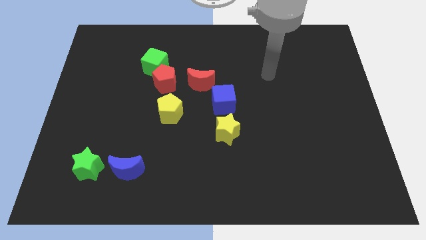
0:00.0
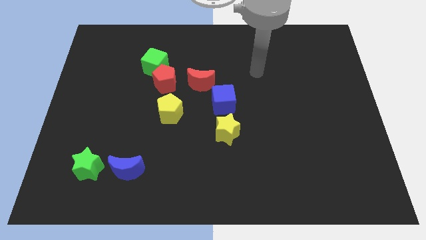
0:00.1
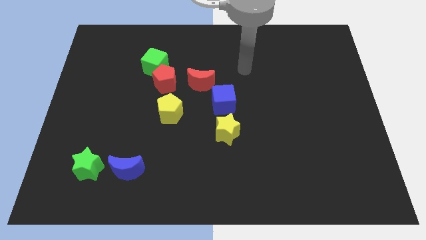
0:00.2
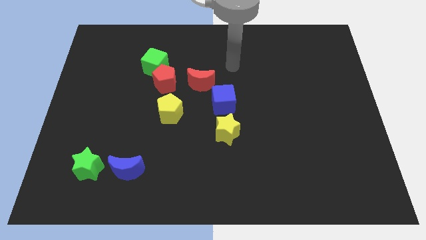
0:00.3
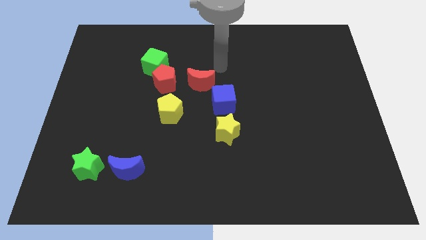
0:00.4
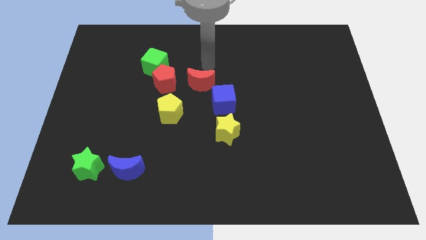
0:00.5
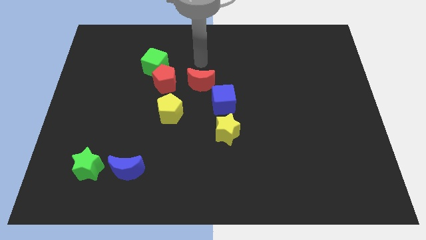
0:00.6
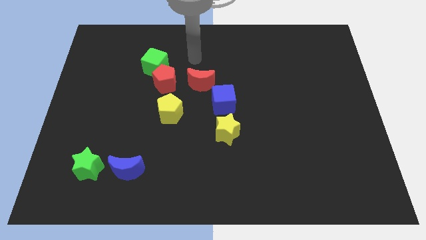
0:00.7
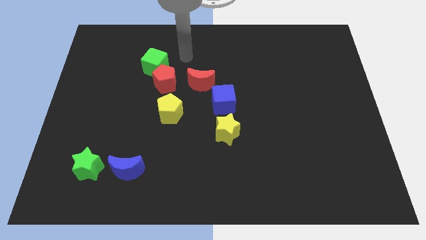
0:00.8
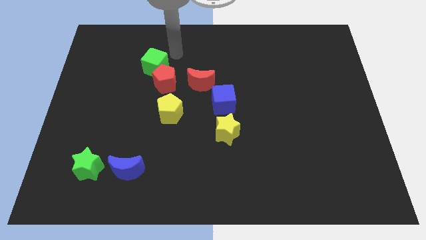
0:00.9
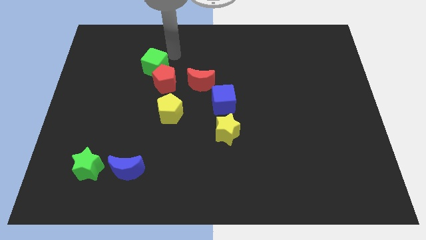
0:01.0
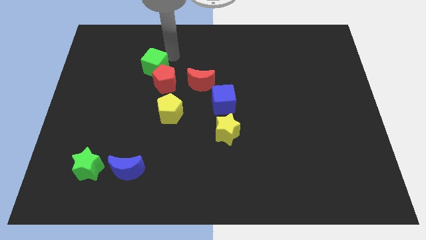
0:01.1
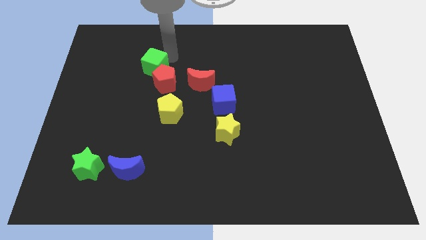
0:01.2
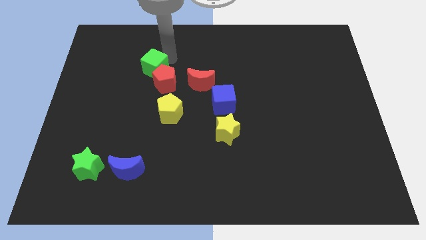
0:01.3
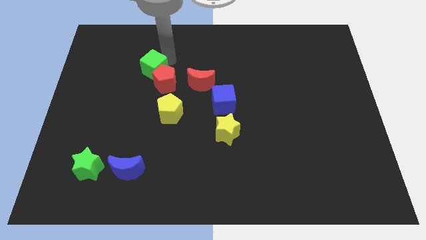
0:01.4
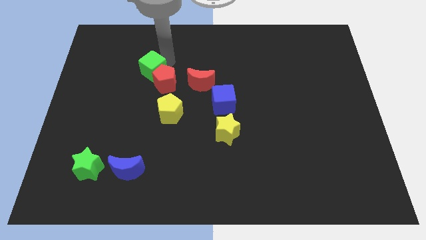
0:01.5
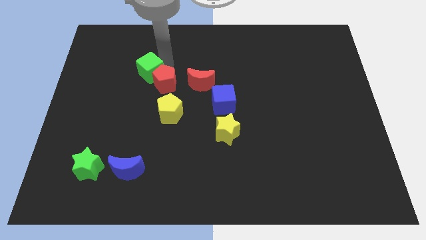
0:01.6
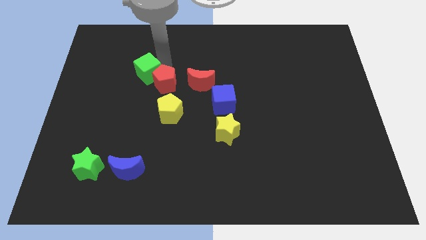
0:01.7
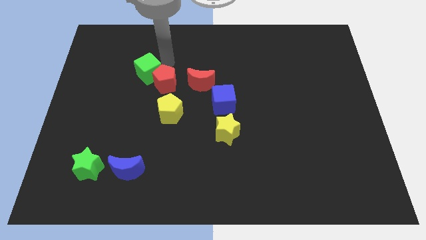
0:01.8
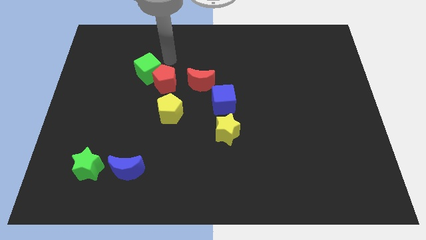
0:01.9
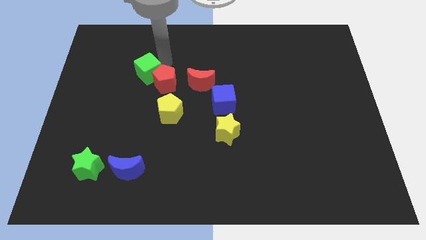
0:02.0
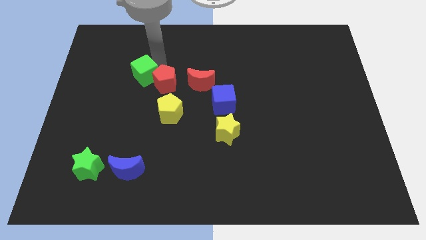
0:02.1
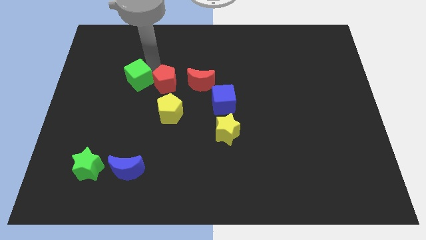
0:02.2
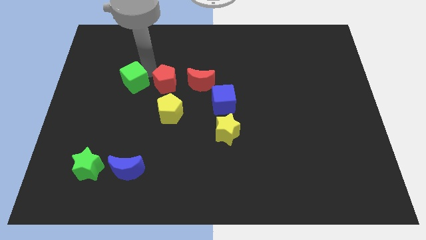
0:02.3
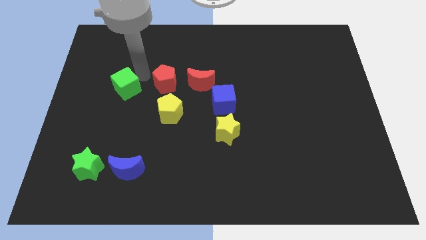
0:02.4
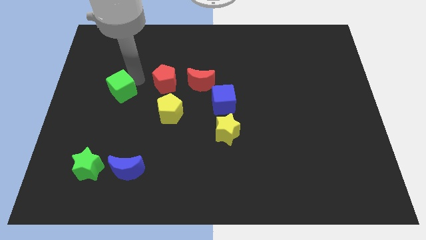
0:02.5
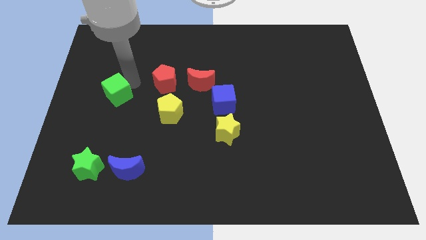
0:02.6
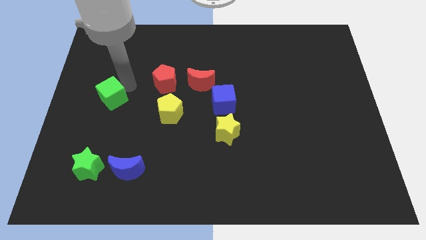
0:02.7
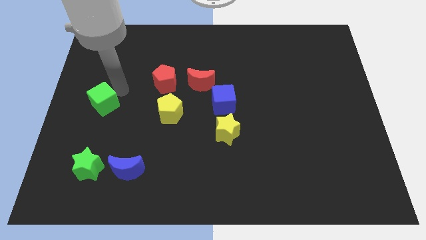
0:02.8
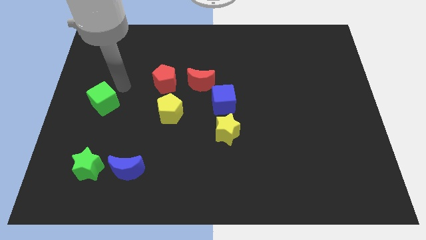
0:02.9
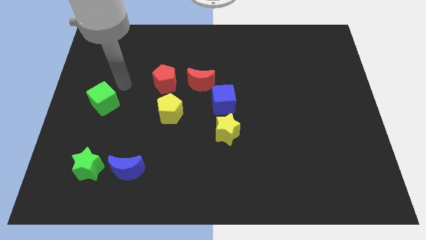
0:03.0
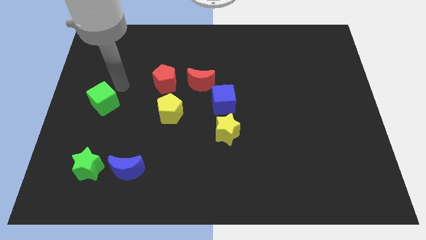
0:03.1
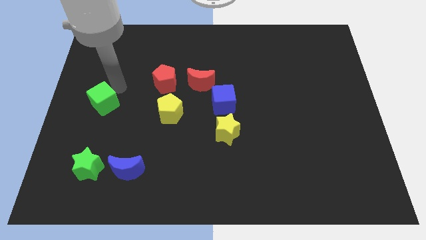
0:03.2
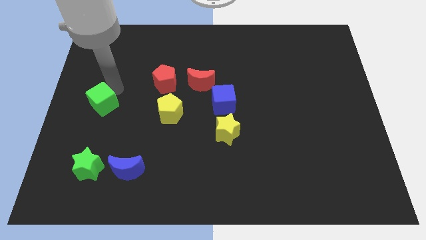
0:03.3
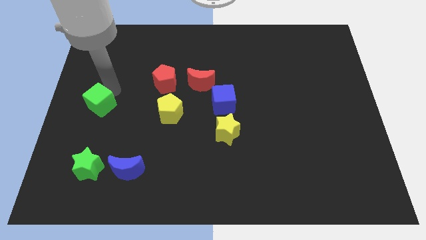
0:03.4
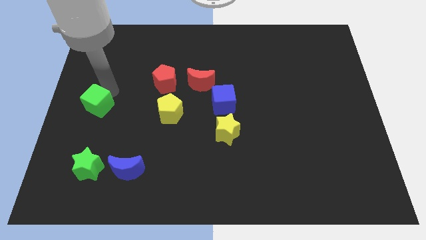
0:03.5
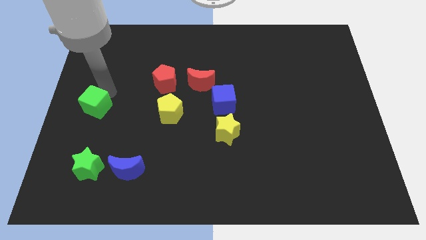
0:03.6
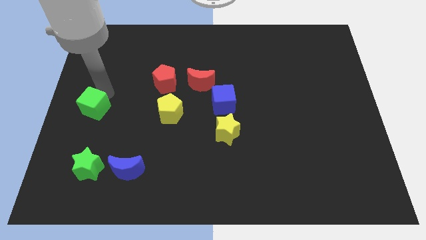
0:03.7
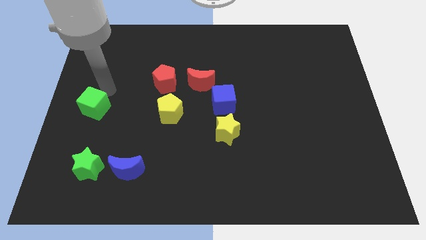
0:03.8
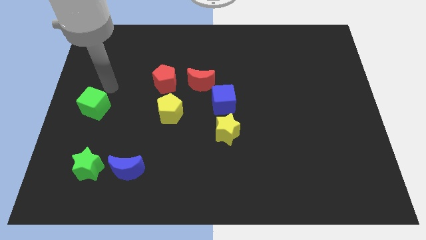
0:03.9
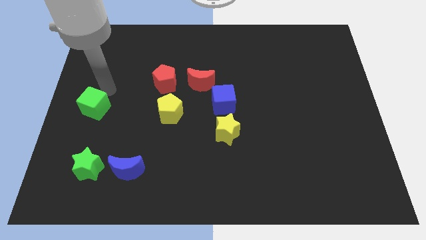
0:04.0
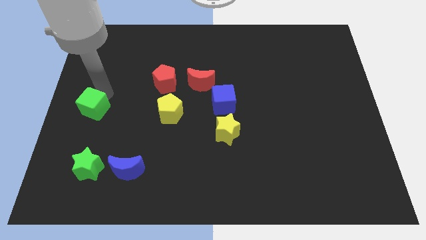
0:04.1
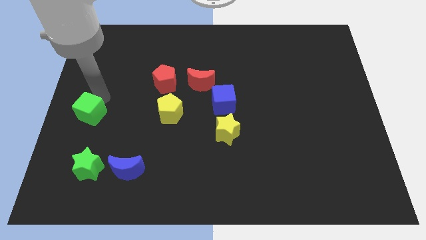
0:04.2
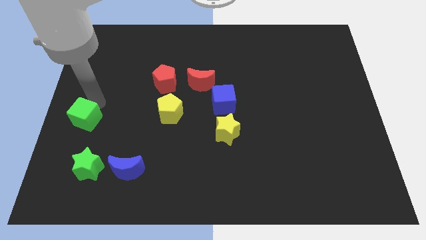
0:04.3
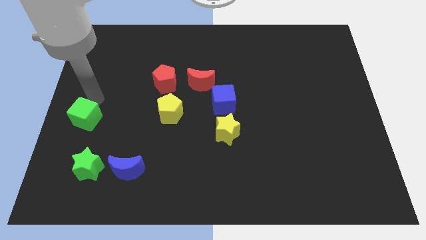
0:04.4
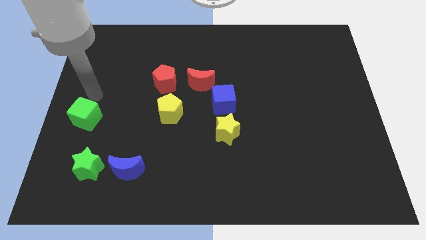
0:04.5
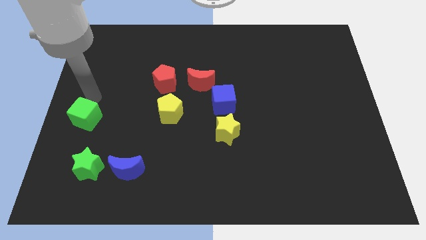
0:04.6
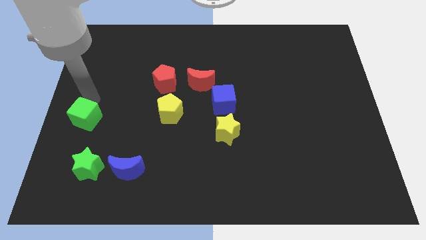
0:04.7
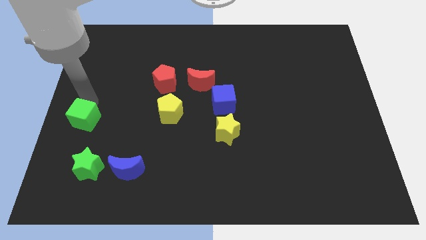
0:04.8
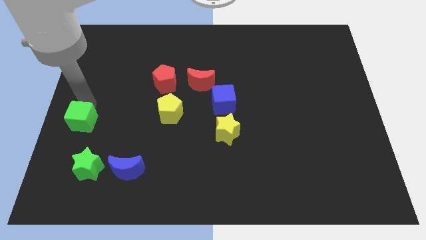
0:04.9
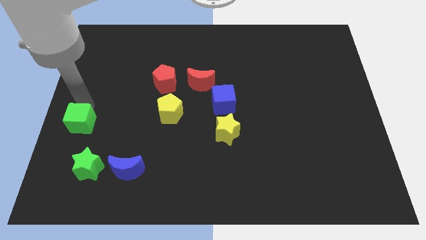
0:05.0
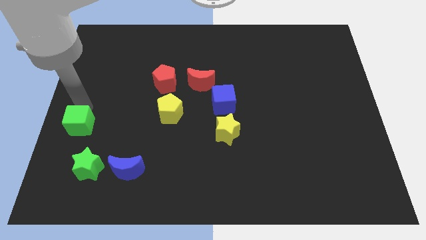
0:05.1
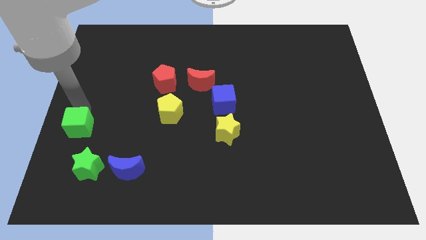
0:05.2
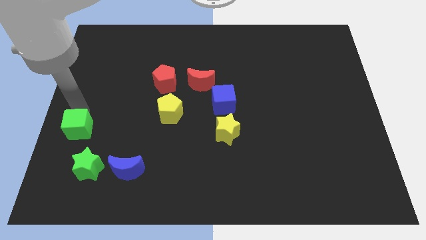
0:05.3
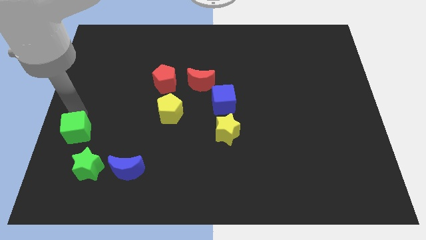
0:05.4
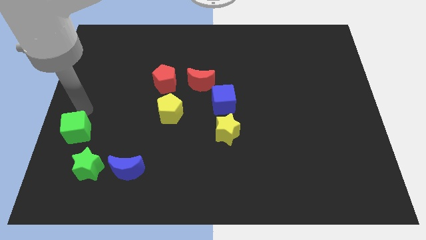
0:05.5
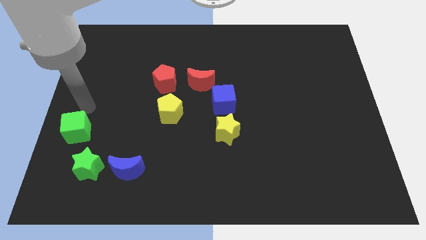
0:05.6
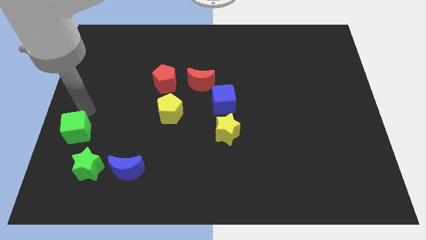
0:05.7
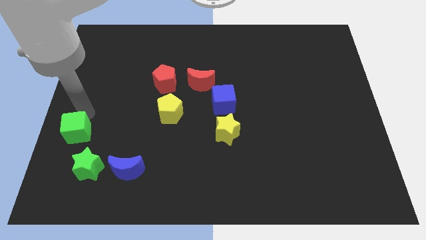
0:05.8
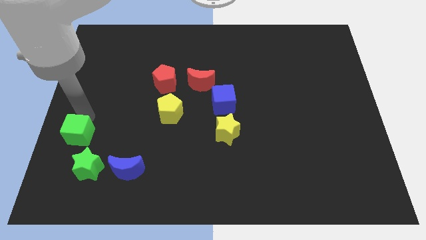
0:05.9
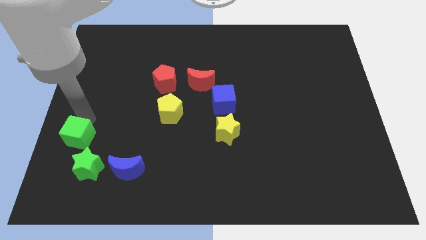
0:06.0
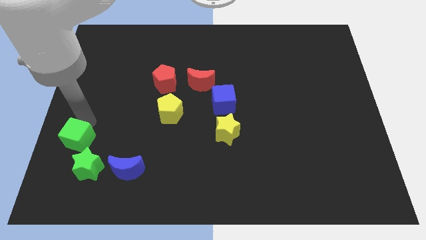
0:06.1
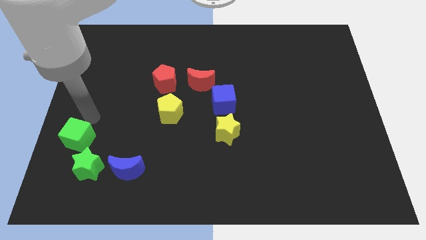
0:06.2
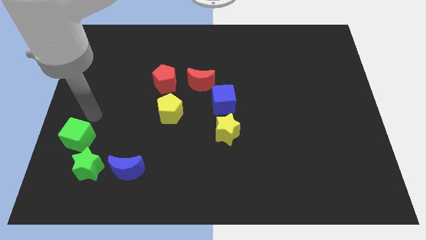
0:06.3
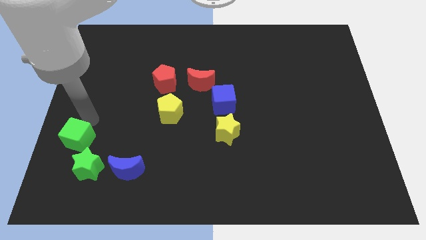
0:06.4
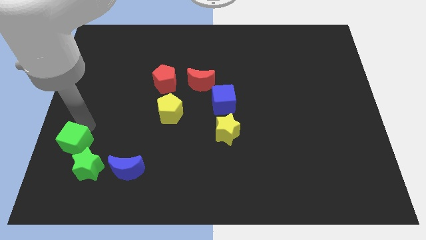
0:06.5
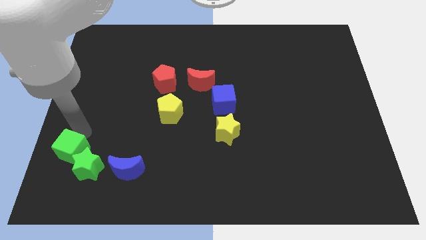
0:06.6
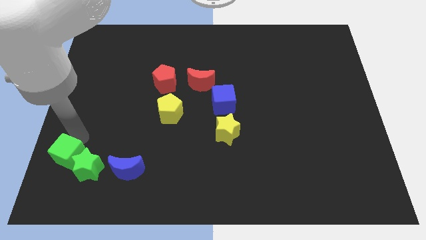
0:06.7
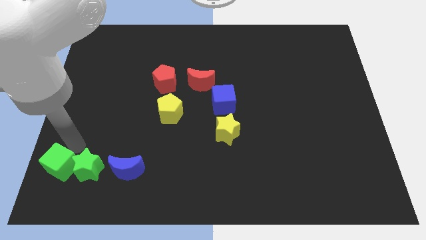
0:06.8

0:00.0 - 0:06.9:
move the green cube to the bottom left
